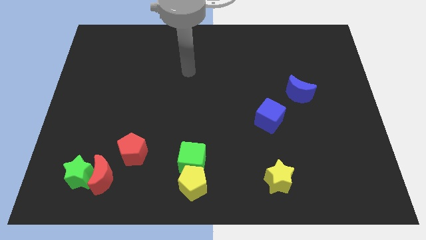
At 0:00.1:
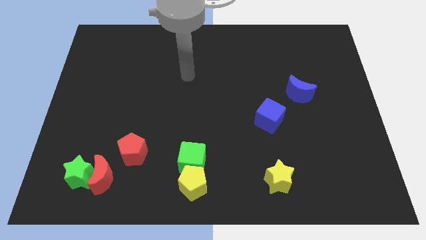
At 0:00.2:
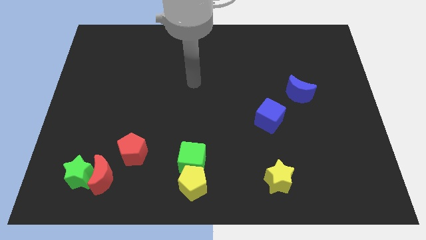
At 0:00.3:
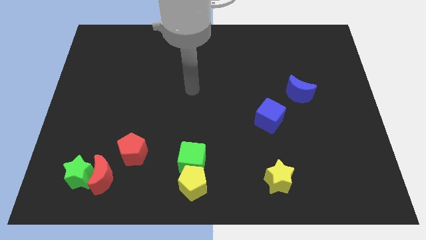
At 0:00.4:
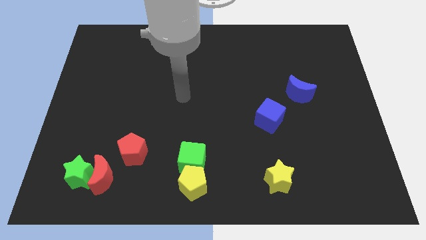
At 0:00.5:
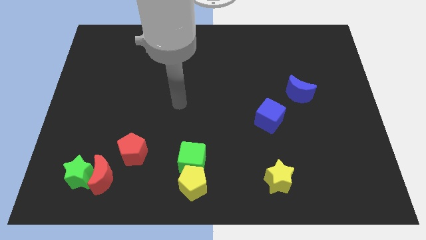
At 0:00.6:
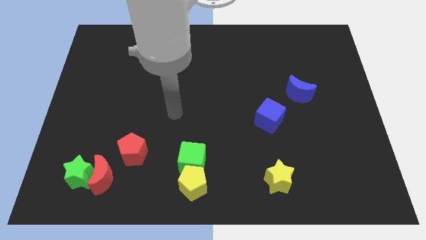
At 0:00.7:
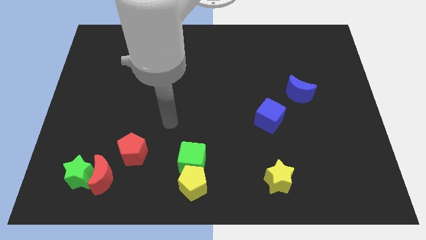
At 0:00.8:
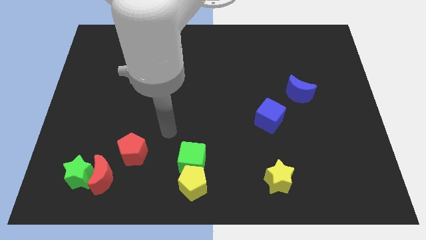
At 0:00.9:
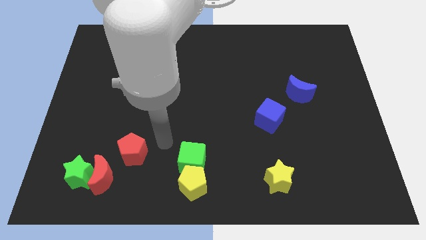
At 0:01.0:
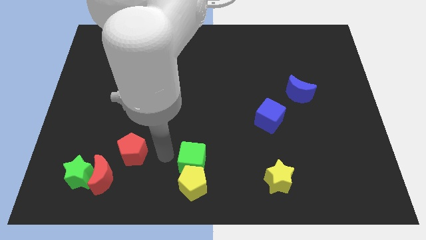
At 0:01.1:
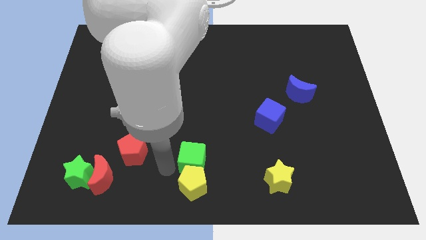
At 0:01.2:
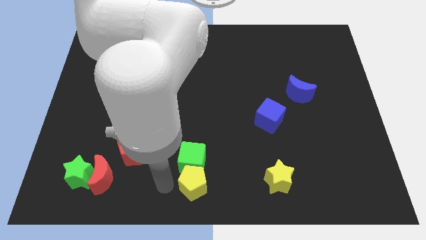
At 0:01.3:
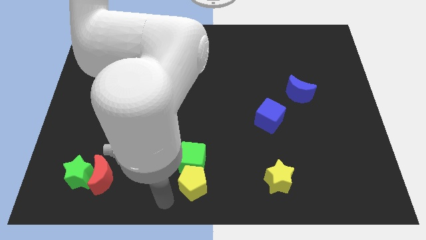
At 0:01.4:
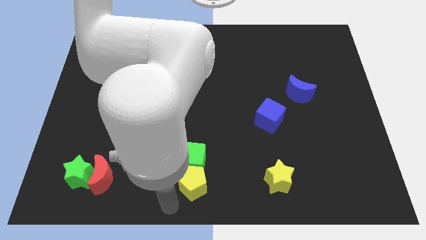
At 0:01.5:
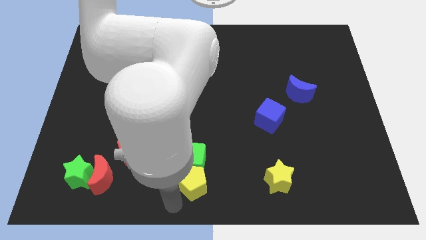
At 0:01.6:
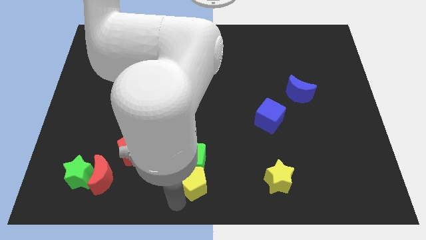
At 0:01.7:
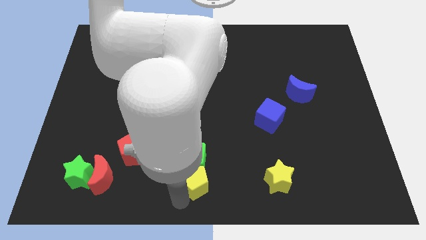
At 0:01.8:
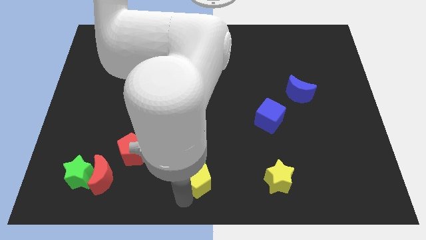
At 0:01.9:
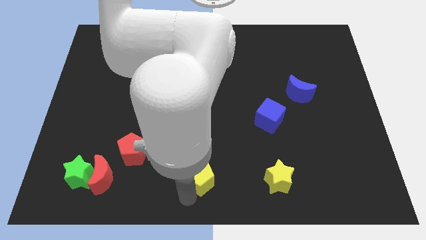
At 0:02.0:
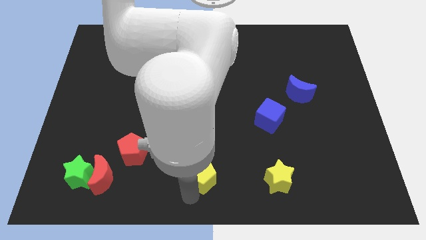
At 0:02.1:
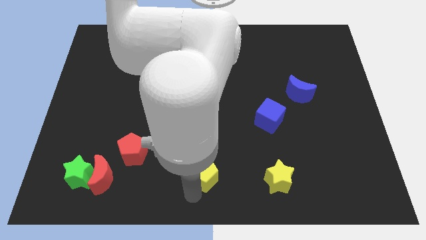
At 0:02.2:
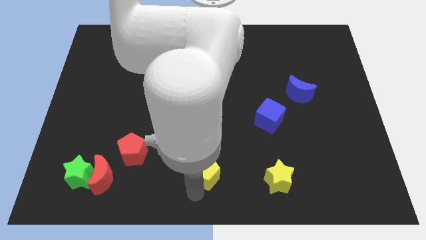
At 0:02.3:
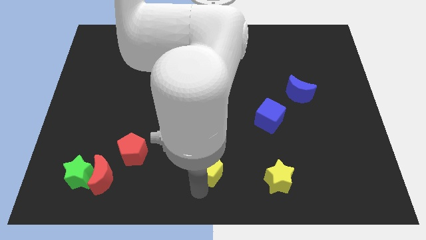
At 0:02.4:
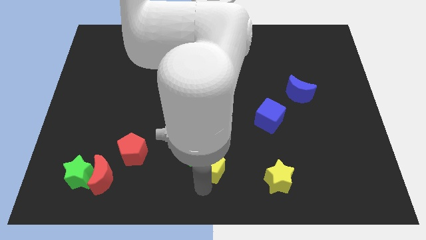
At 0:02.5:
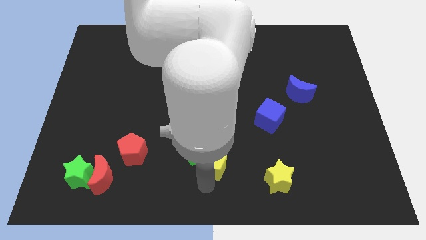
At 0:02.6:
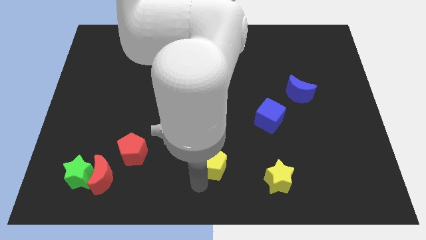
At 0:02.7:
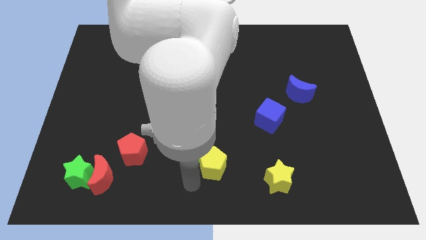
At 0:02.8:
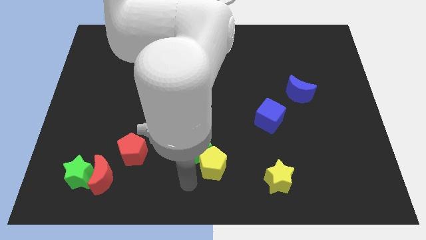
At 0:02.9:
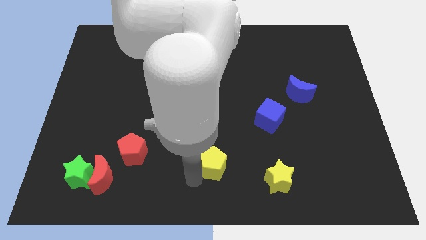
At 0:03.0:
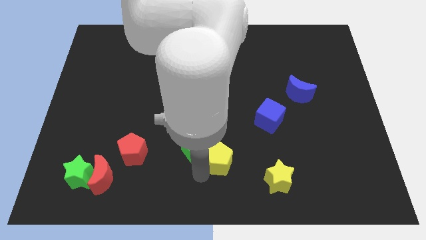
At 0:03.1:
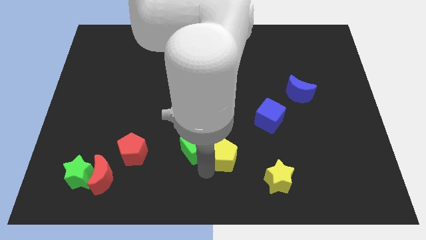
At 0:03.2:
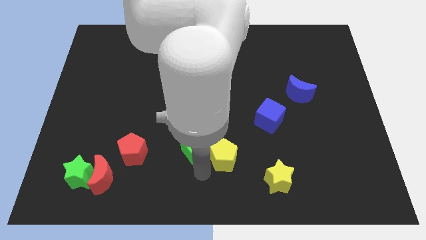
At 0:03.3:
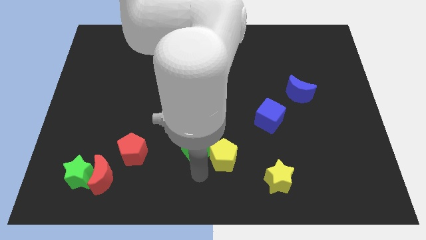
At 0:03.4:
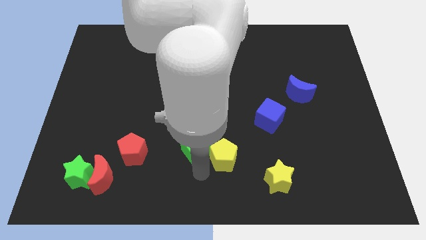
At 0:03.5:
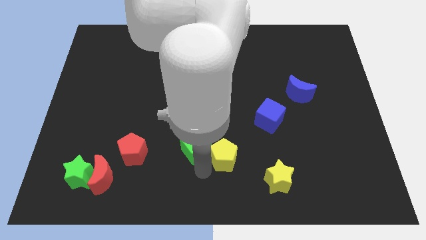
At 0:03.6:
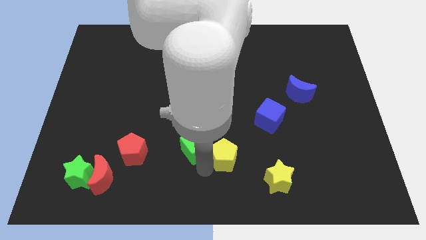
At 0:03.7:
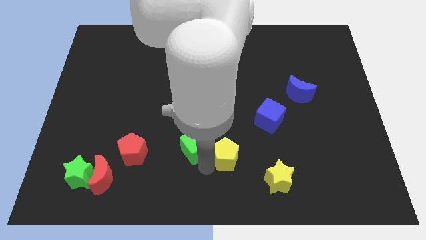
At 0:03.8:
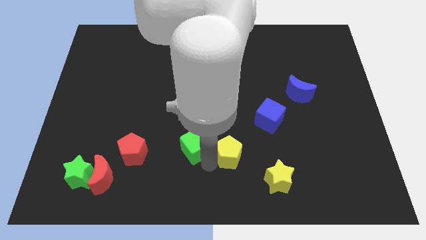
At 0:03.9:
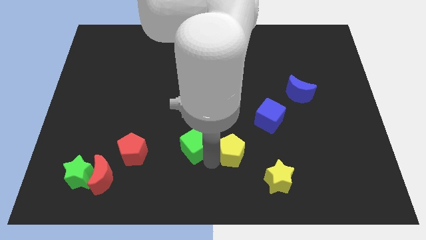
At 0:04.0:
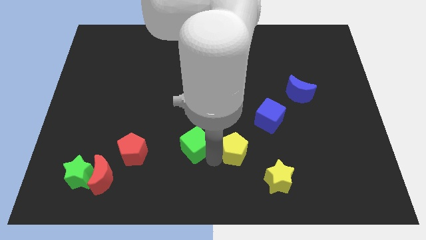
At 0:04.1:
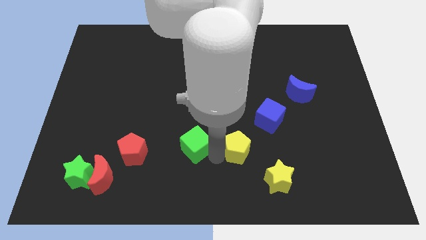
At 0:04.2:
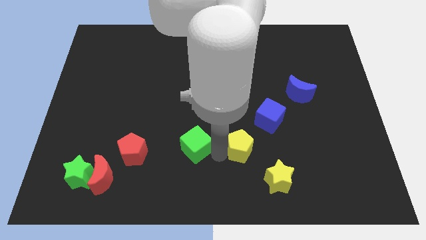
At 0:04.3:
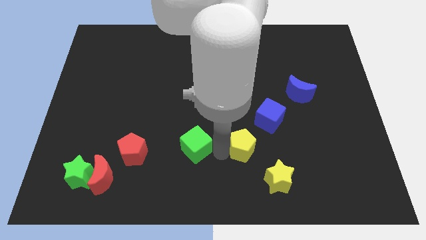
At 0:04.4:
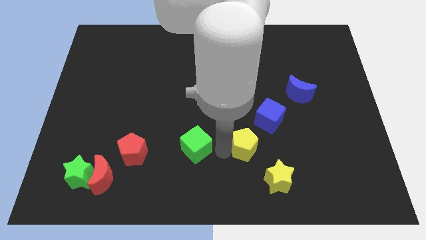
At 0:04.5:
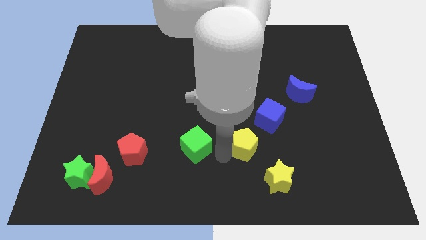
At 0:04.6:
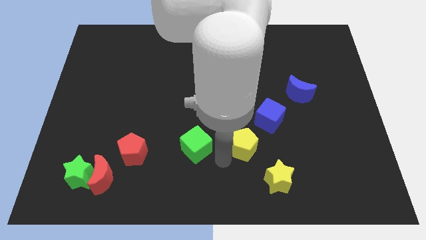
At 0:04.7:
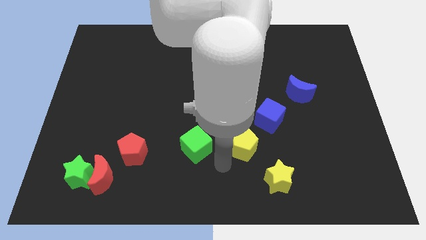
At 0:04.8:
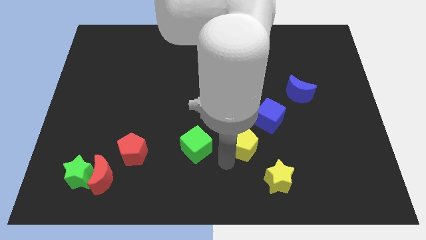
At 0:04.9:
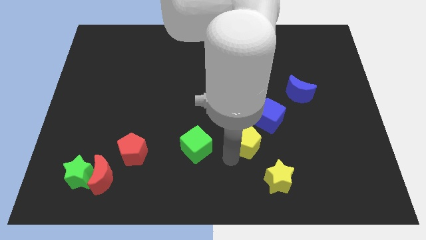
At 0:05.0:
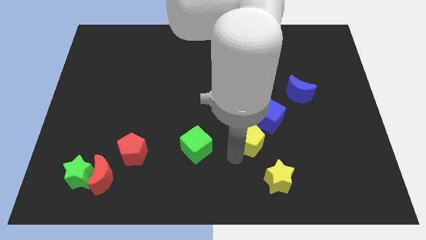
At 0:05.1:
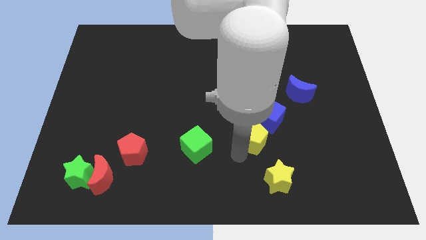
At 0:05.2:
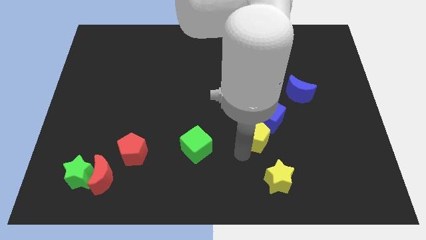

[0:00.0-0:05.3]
push the yellow pentagon to the blue cube

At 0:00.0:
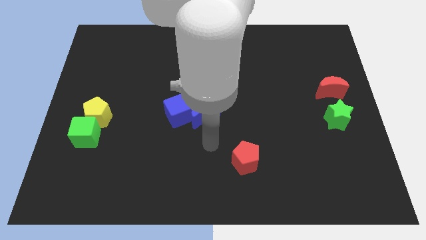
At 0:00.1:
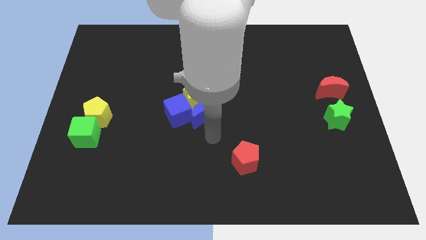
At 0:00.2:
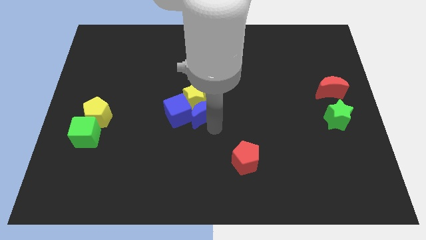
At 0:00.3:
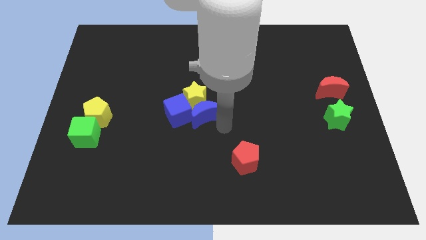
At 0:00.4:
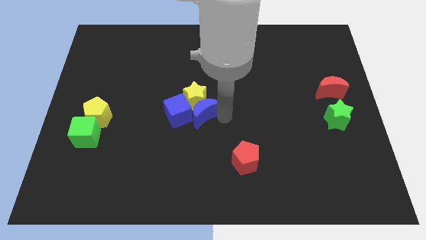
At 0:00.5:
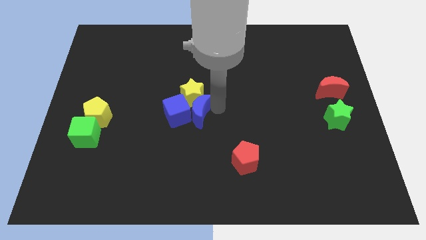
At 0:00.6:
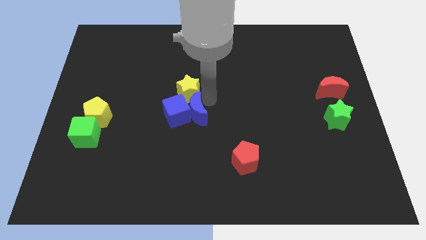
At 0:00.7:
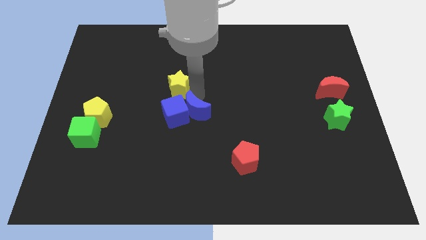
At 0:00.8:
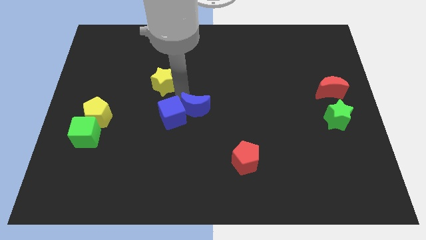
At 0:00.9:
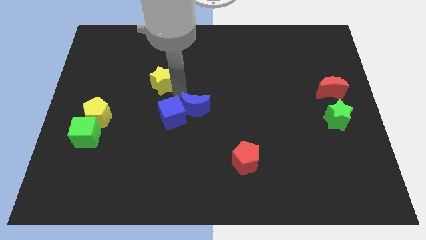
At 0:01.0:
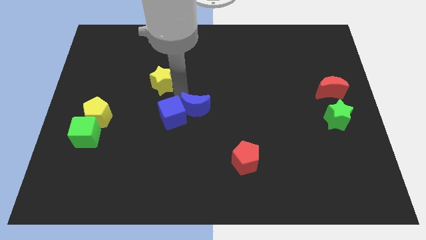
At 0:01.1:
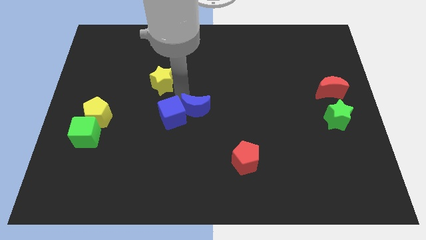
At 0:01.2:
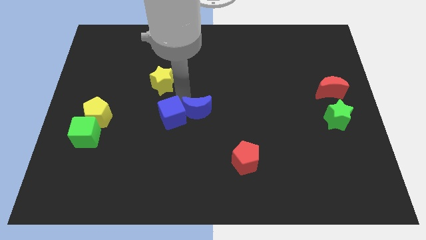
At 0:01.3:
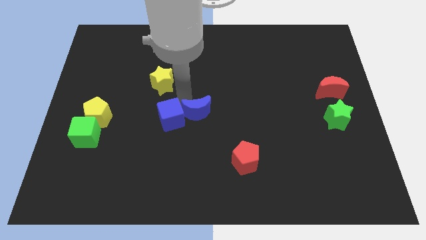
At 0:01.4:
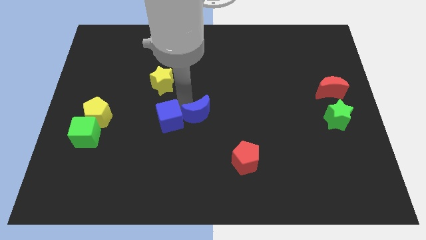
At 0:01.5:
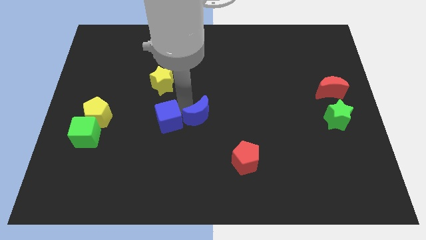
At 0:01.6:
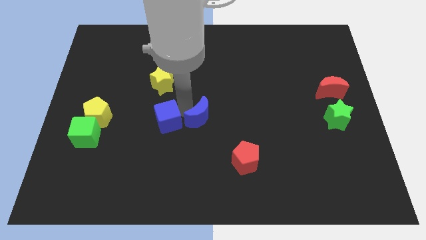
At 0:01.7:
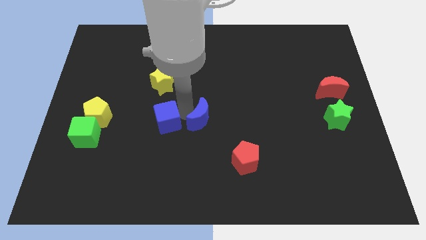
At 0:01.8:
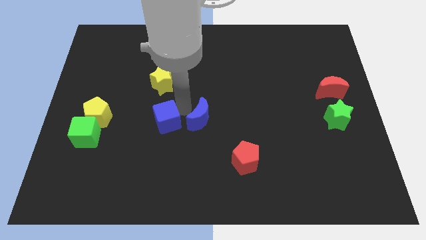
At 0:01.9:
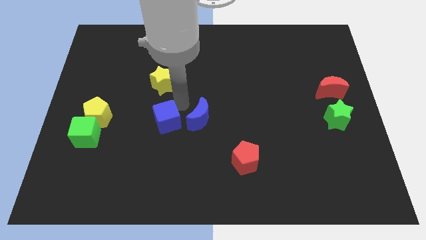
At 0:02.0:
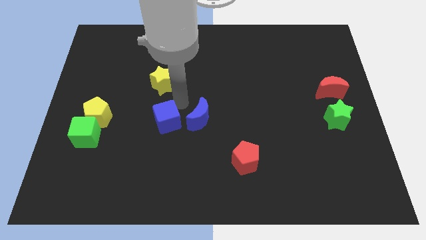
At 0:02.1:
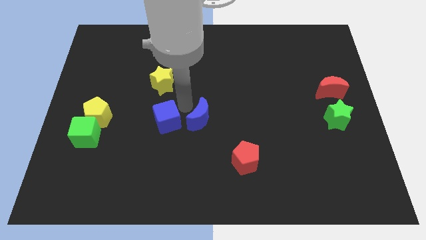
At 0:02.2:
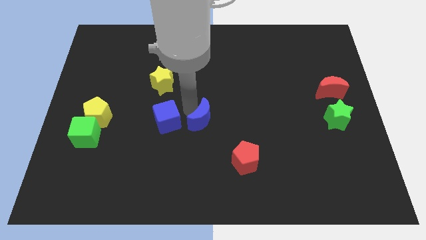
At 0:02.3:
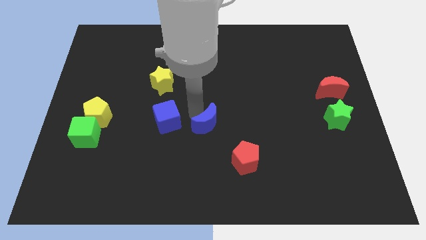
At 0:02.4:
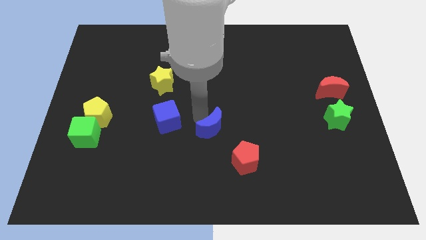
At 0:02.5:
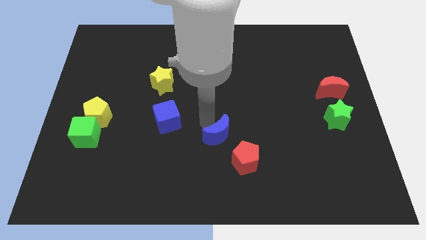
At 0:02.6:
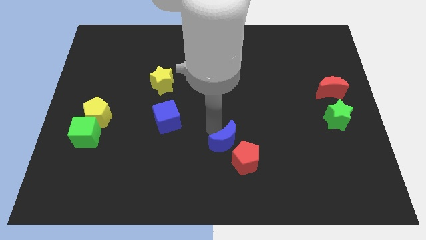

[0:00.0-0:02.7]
slide the blue moon to the red pentagon
